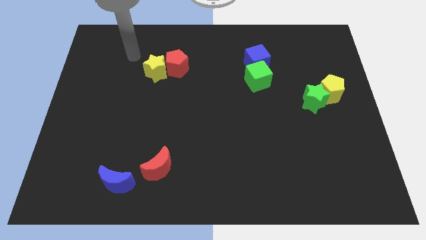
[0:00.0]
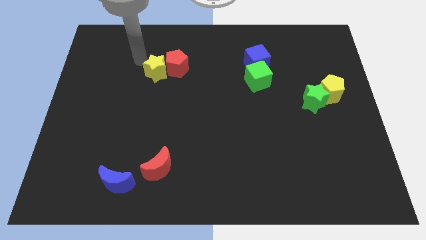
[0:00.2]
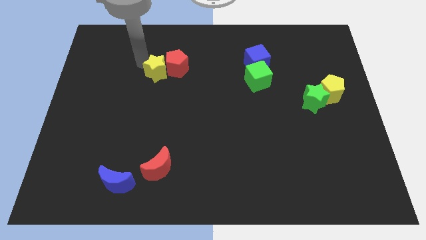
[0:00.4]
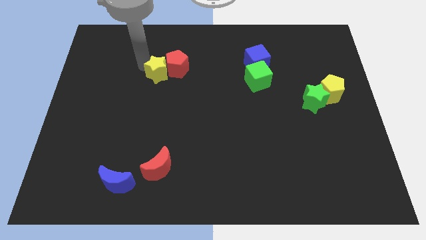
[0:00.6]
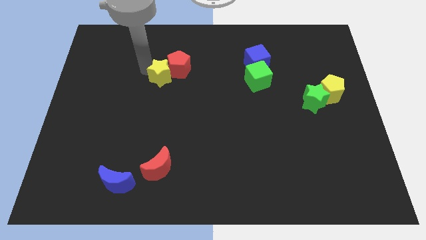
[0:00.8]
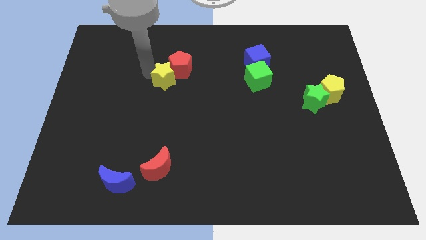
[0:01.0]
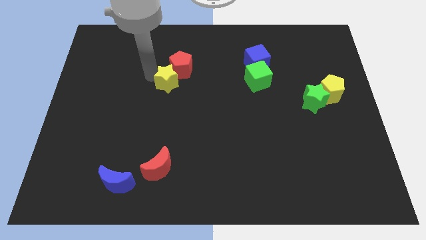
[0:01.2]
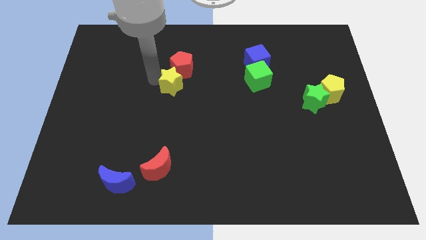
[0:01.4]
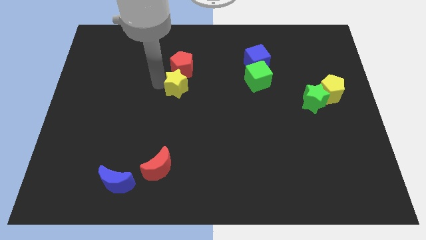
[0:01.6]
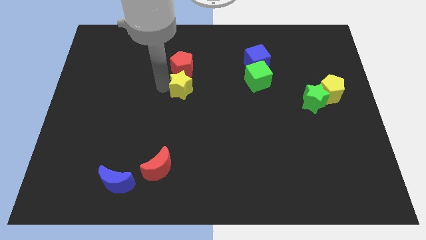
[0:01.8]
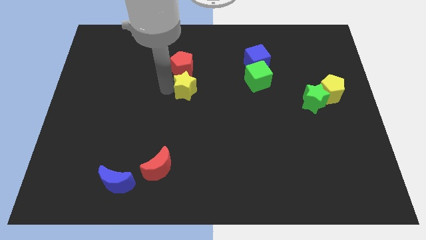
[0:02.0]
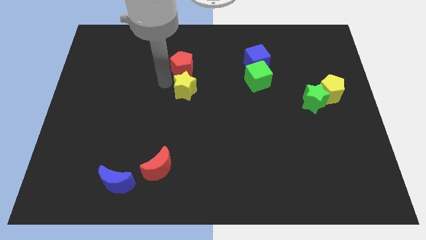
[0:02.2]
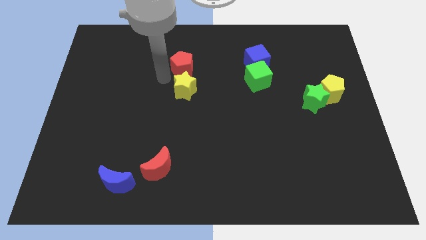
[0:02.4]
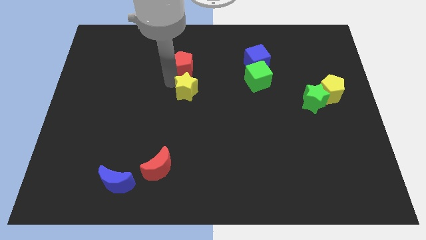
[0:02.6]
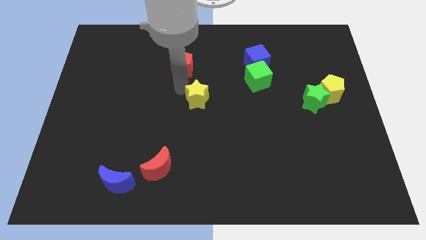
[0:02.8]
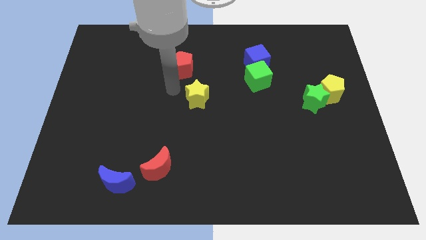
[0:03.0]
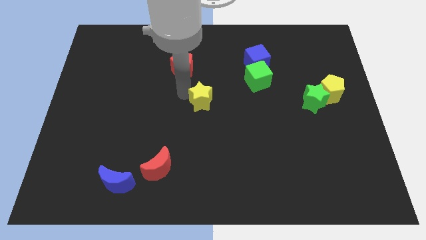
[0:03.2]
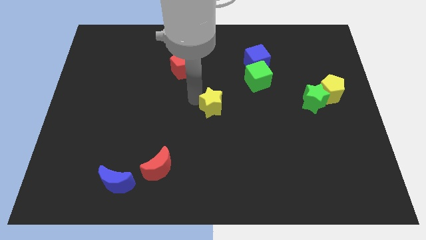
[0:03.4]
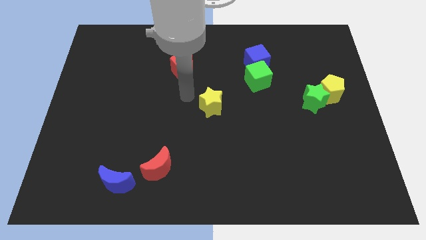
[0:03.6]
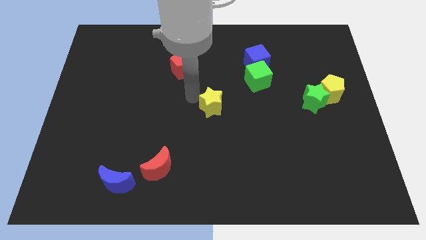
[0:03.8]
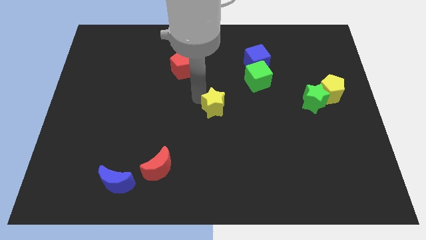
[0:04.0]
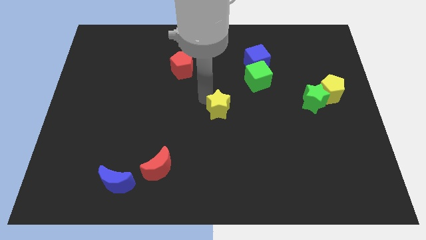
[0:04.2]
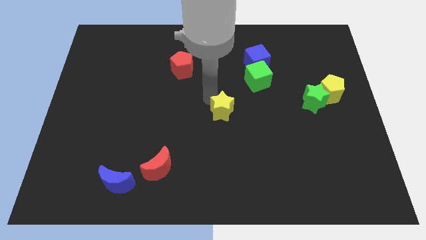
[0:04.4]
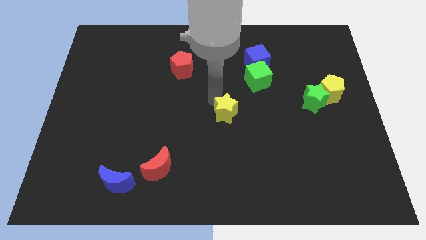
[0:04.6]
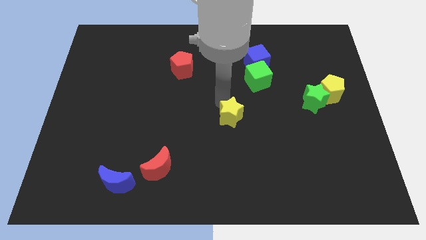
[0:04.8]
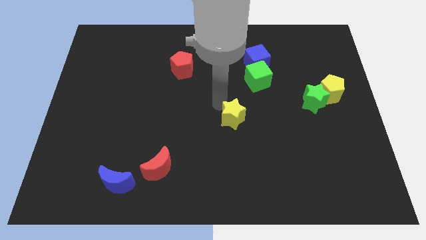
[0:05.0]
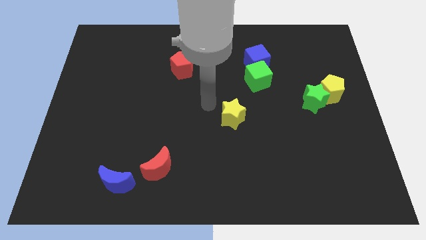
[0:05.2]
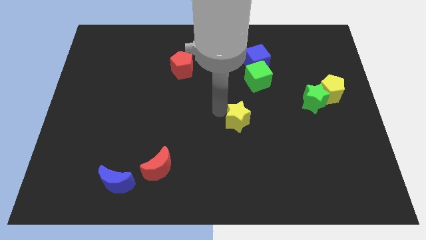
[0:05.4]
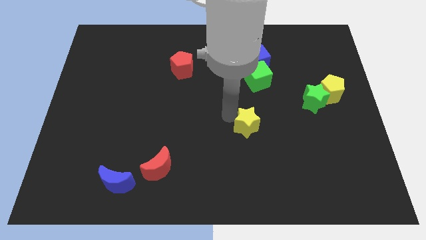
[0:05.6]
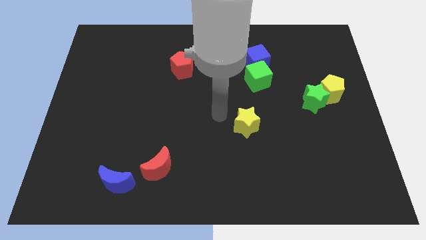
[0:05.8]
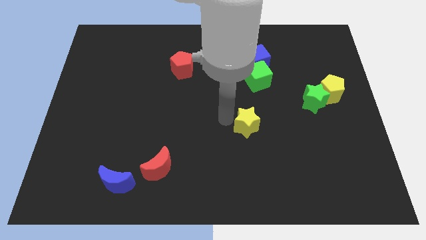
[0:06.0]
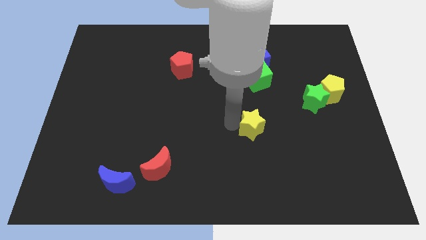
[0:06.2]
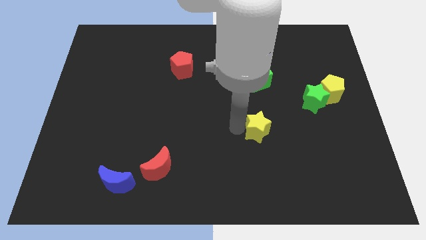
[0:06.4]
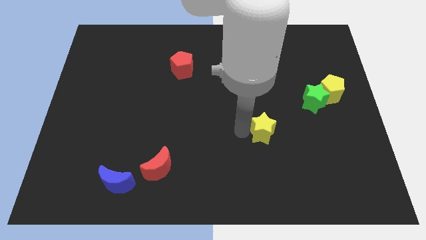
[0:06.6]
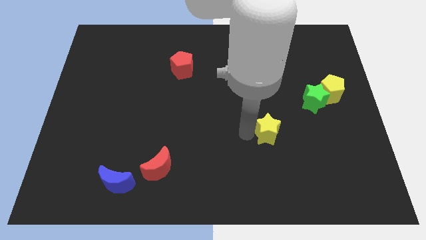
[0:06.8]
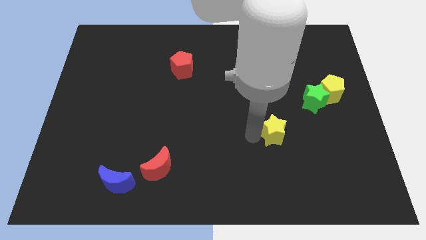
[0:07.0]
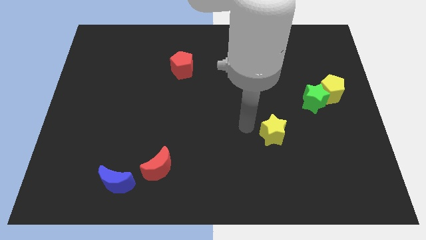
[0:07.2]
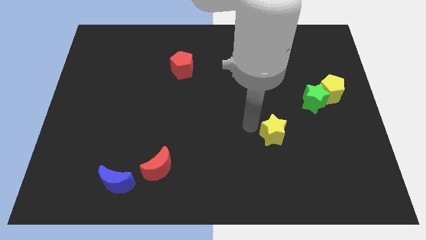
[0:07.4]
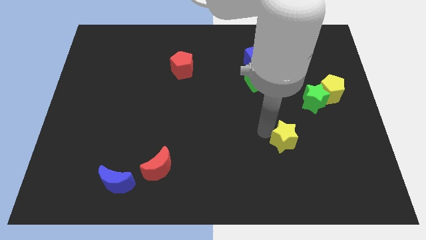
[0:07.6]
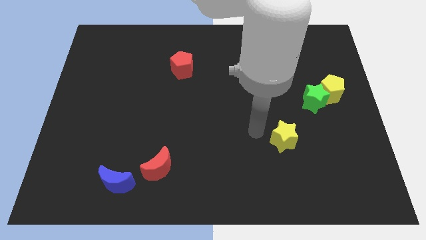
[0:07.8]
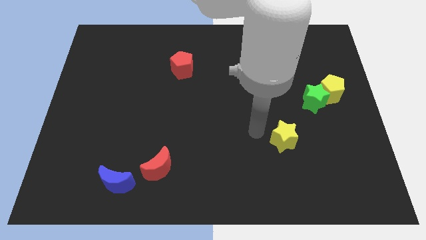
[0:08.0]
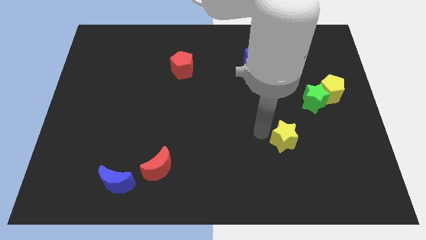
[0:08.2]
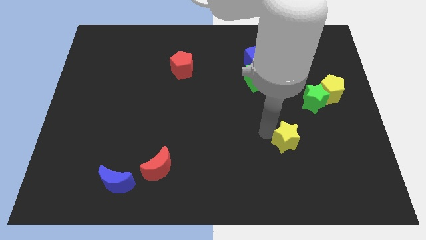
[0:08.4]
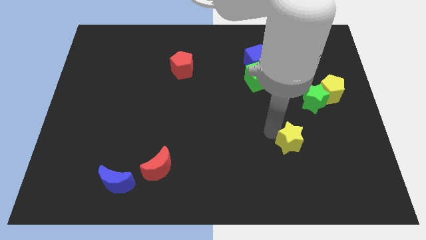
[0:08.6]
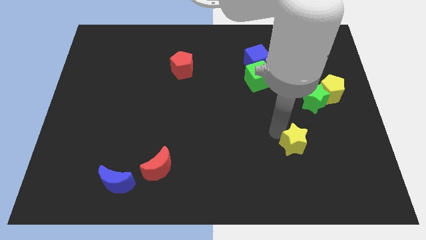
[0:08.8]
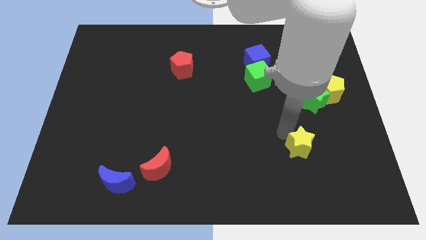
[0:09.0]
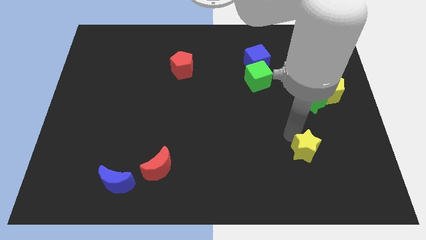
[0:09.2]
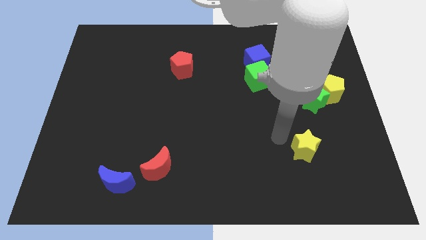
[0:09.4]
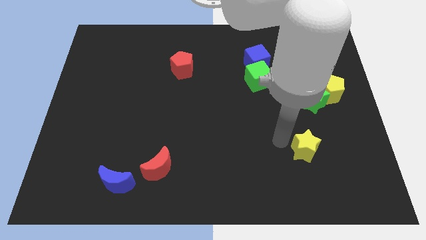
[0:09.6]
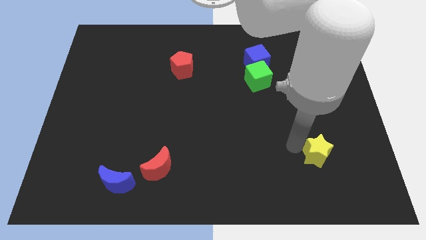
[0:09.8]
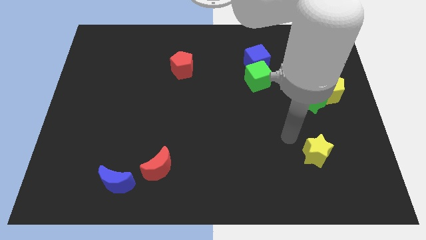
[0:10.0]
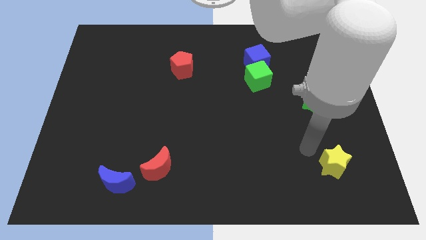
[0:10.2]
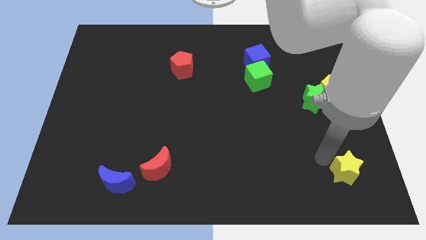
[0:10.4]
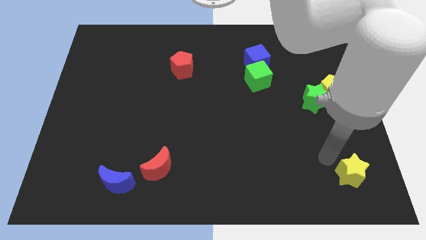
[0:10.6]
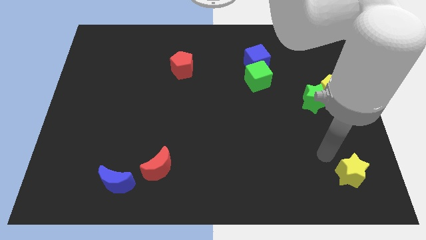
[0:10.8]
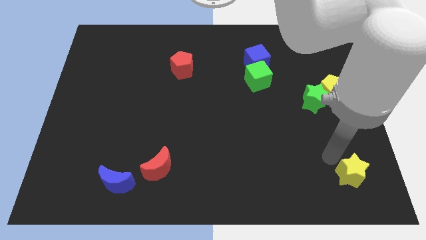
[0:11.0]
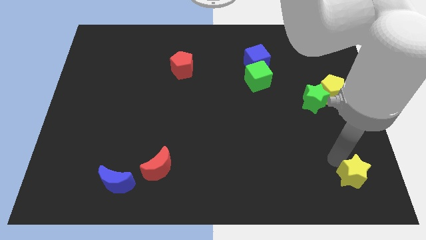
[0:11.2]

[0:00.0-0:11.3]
put the yellow star to the bottom right
